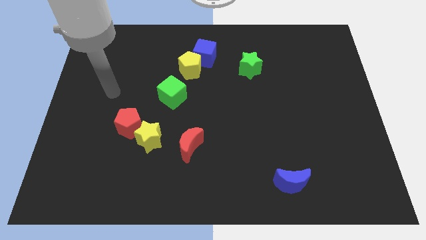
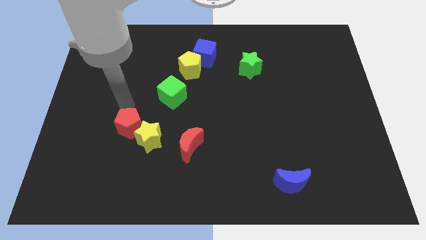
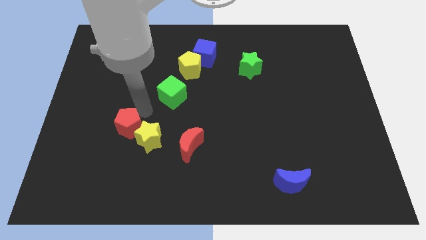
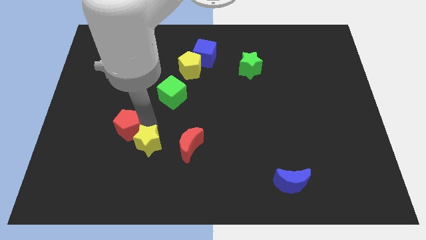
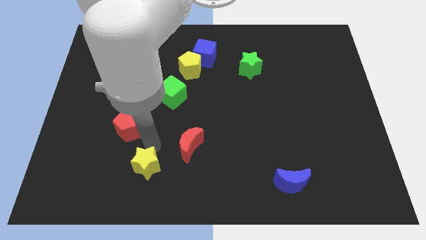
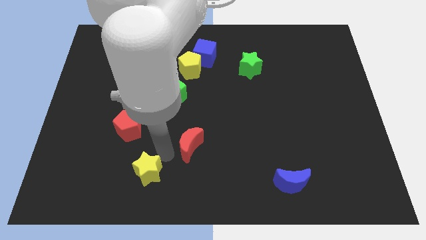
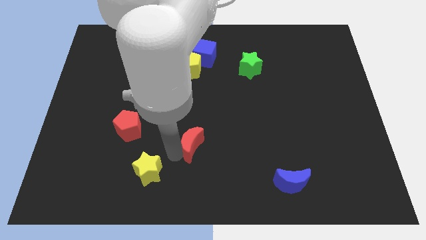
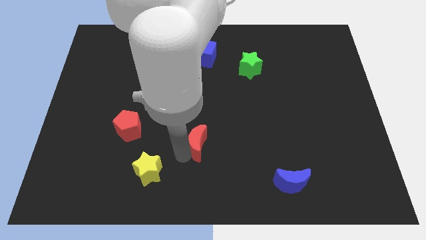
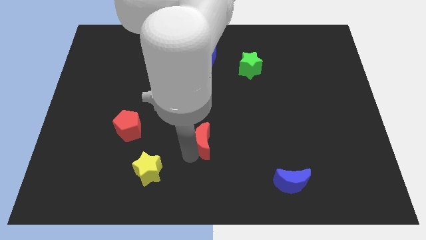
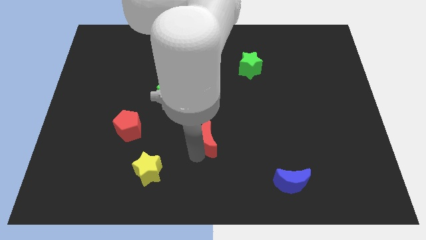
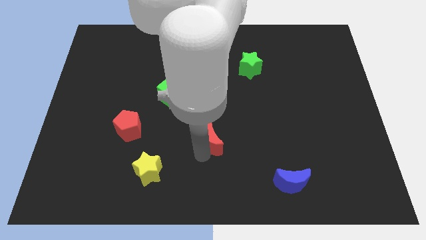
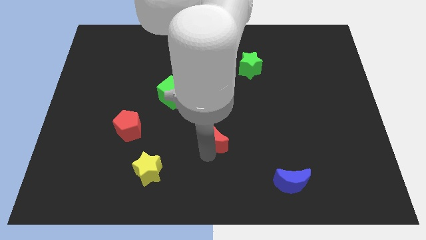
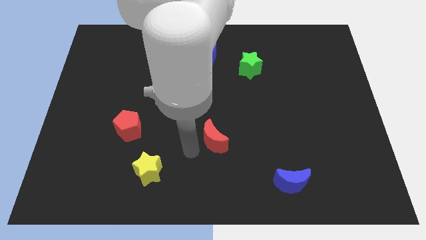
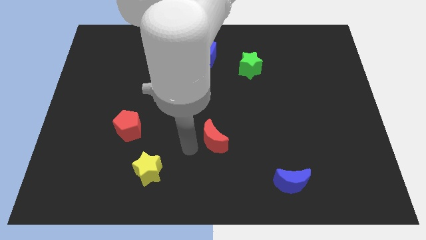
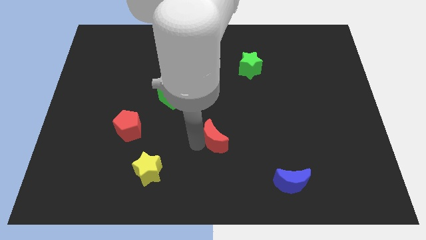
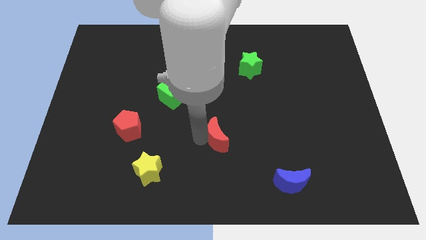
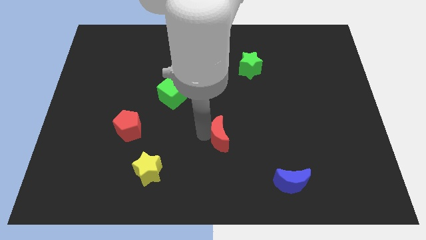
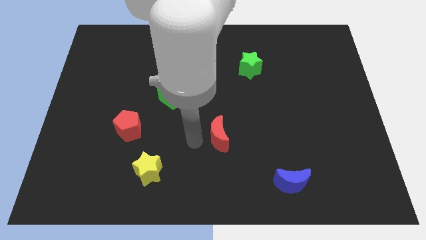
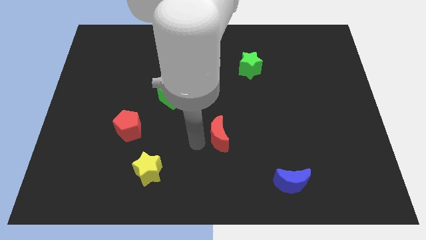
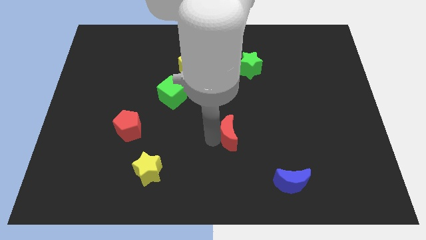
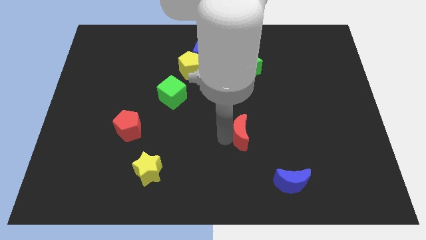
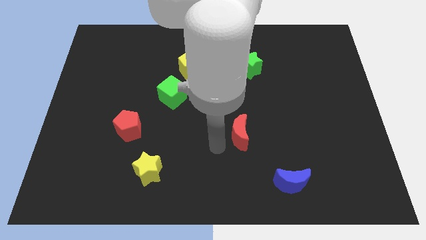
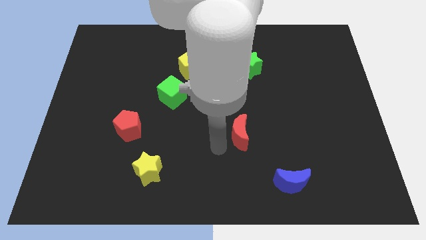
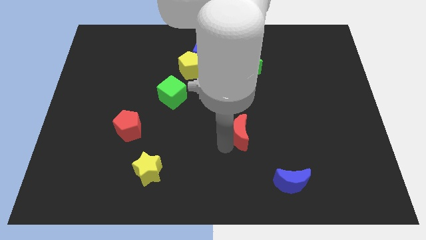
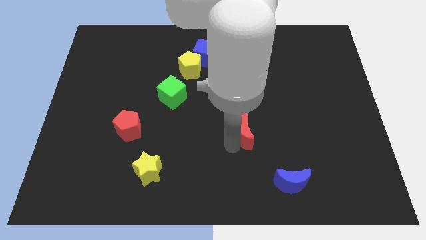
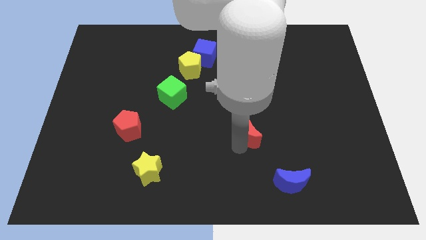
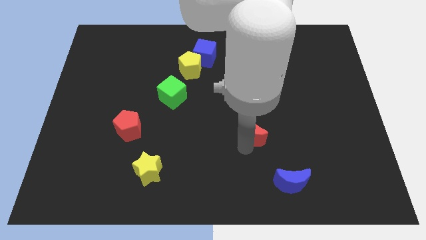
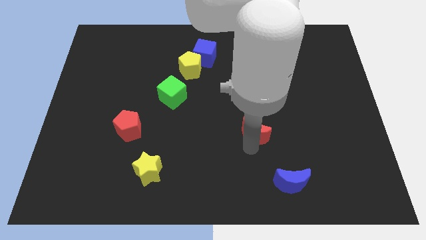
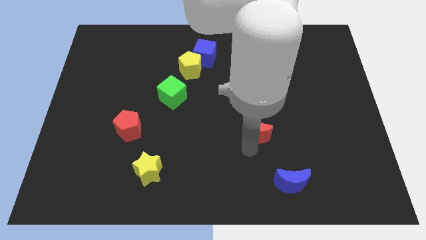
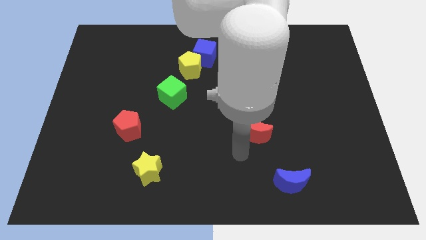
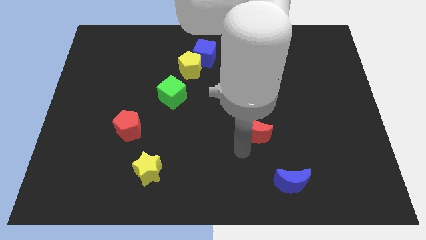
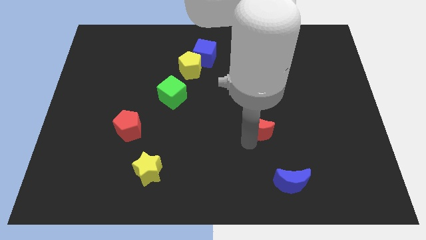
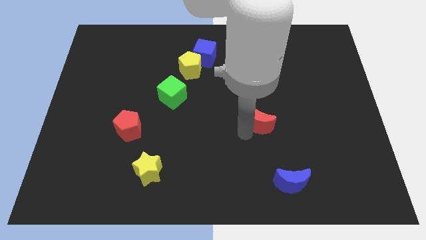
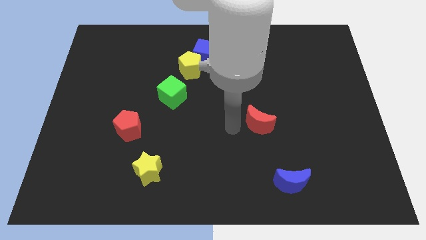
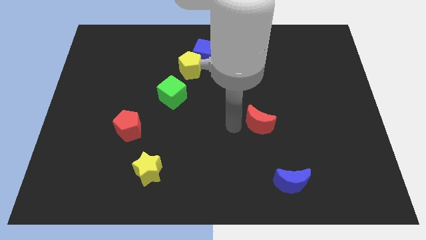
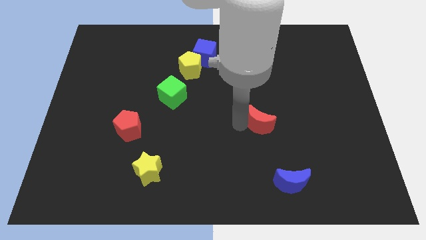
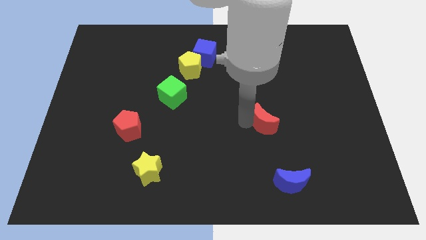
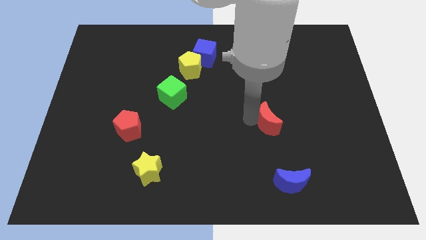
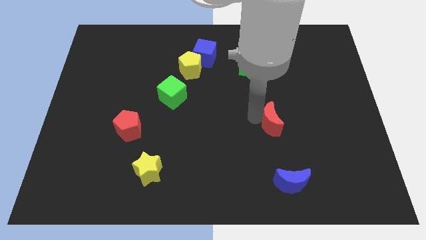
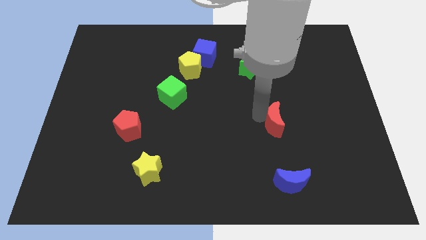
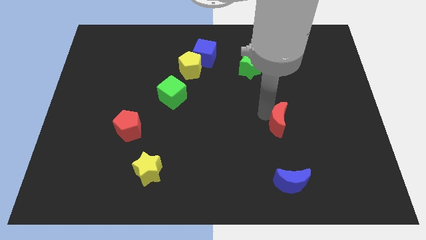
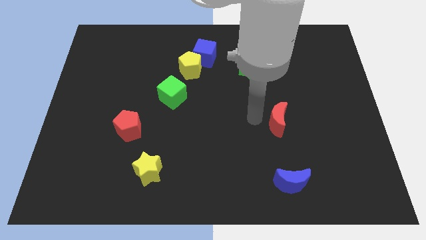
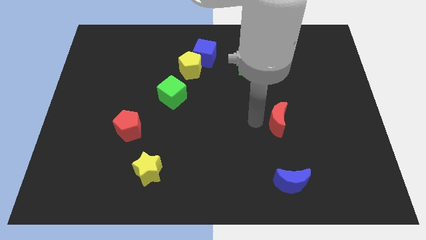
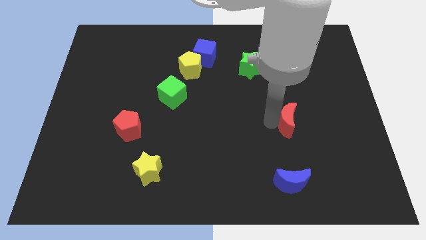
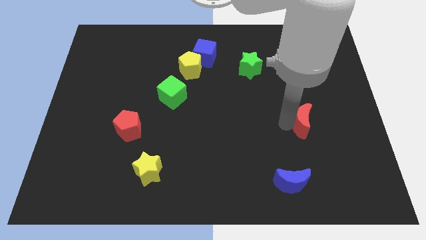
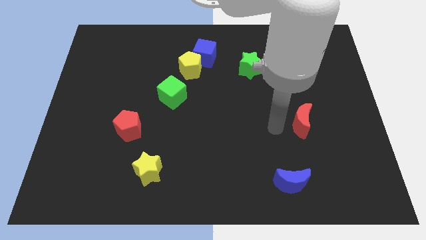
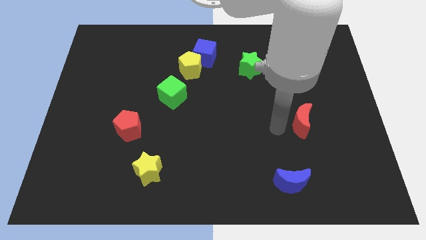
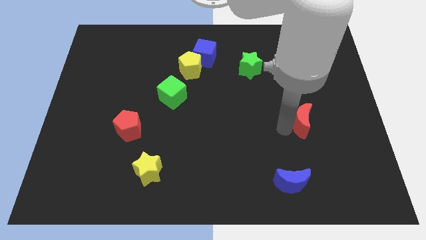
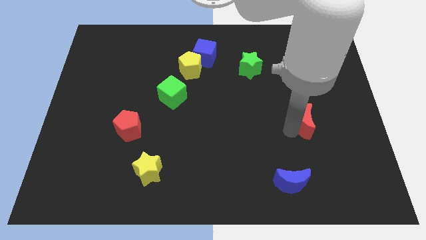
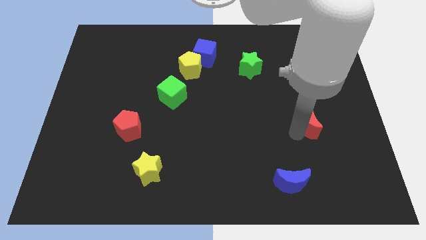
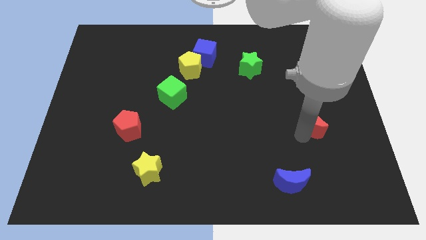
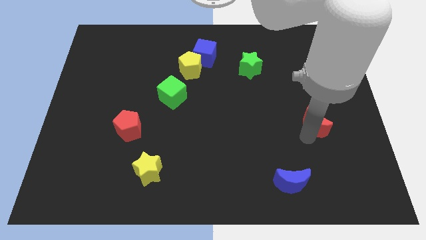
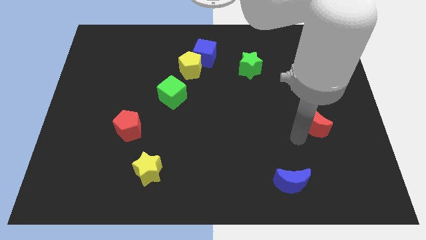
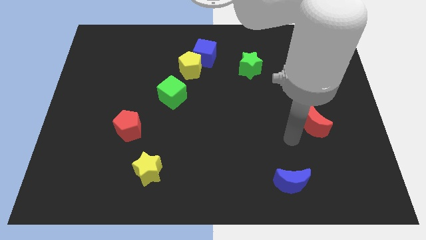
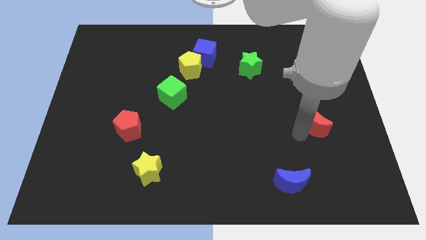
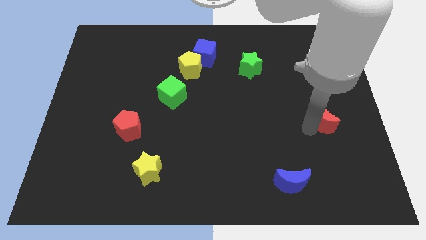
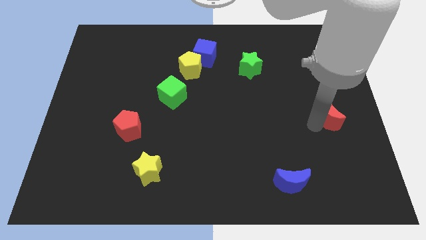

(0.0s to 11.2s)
move the red moon to the right side

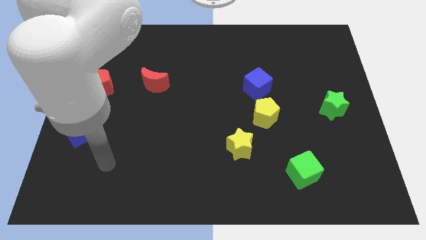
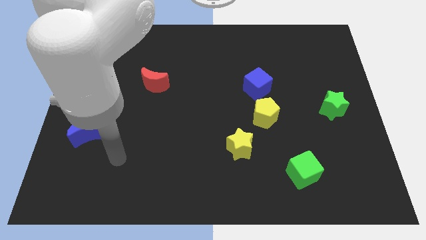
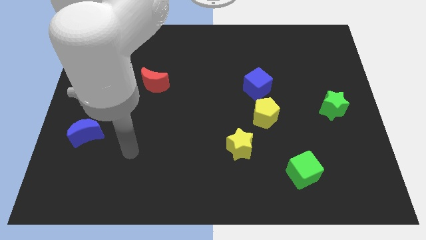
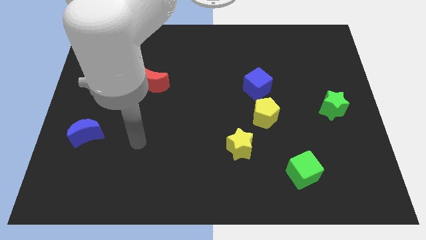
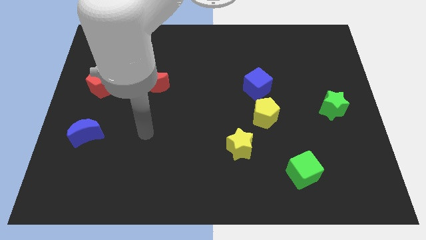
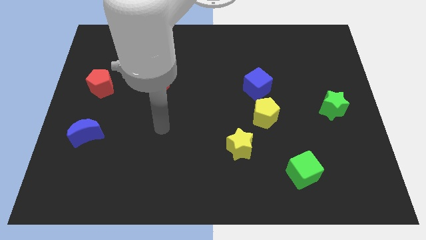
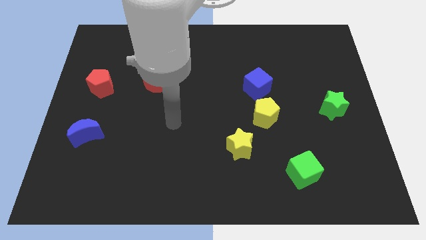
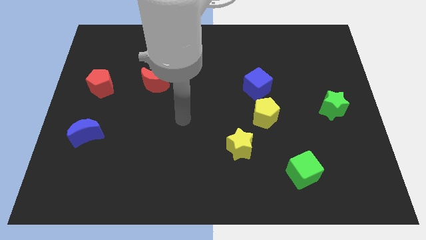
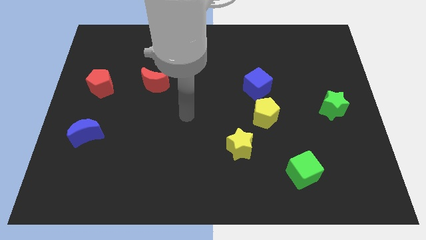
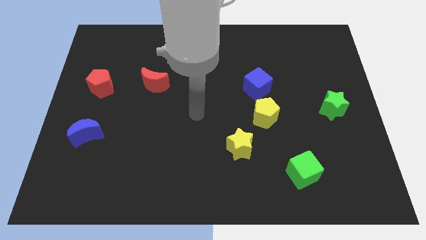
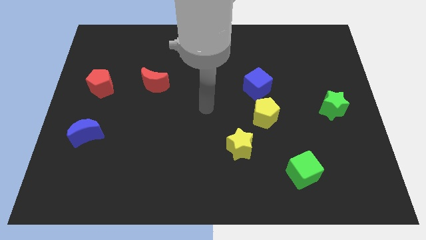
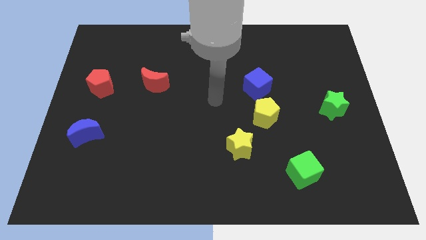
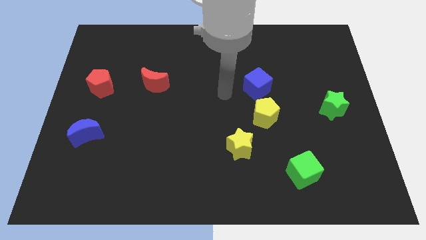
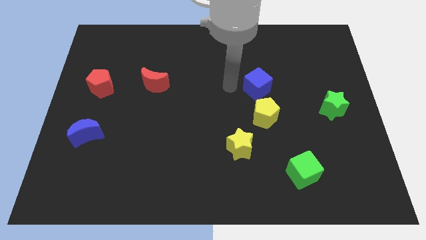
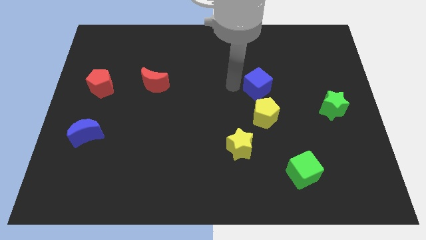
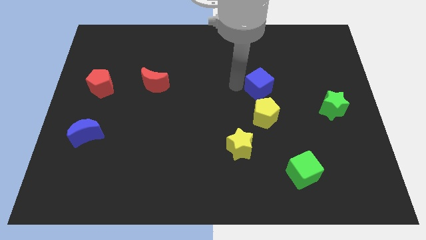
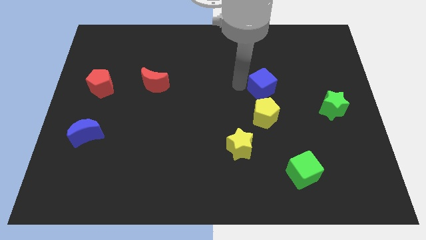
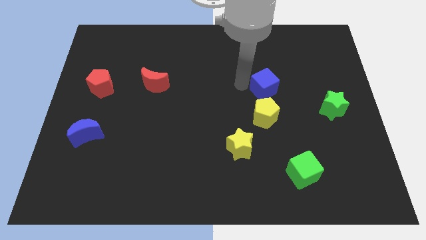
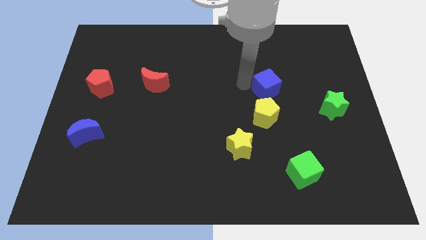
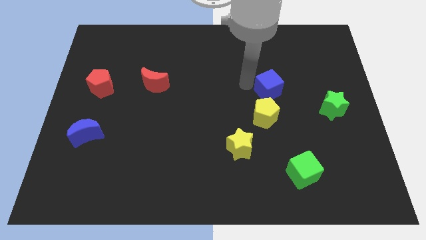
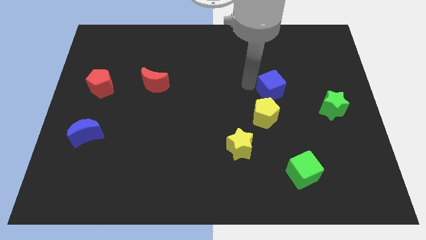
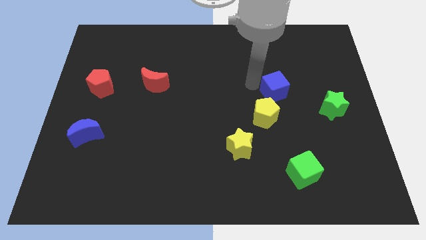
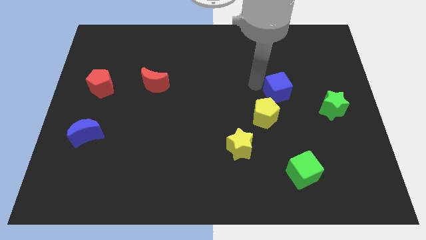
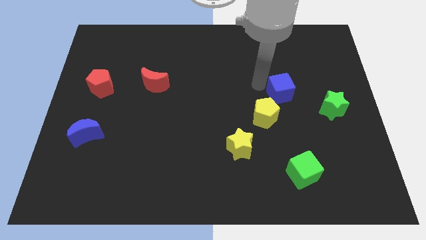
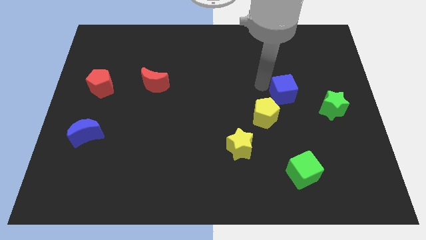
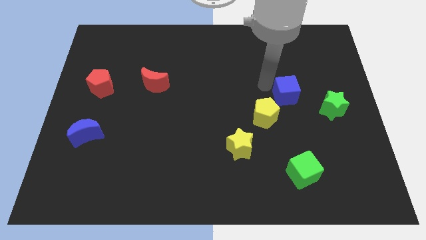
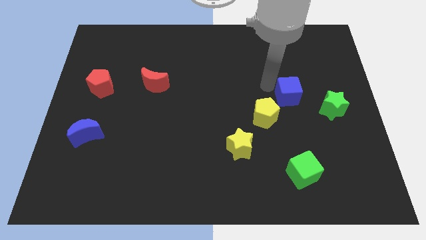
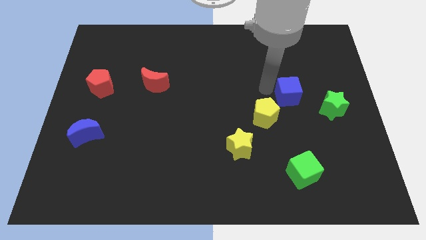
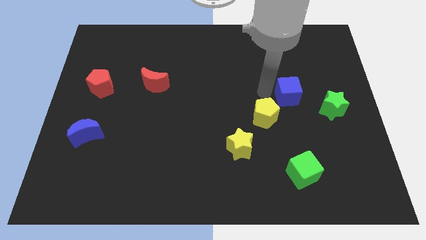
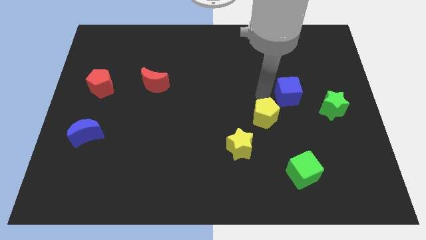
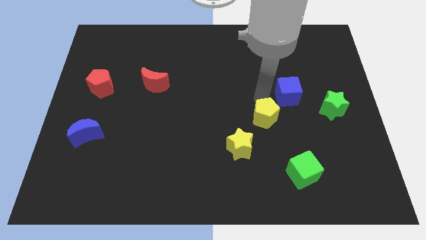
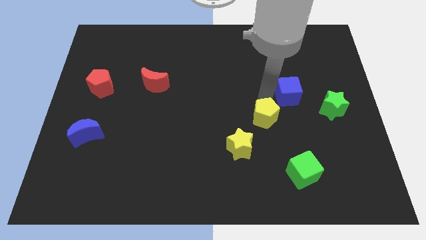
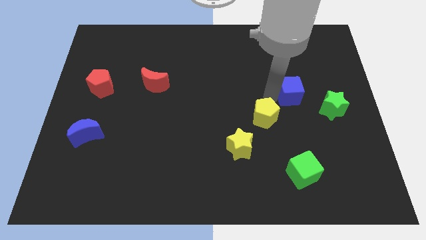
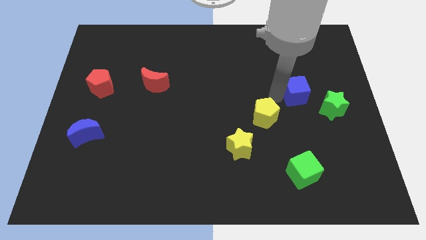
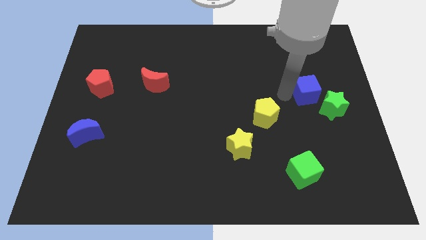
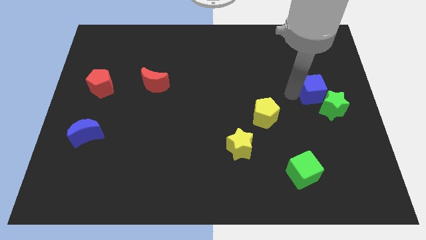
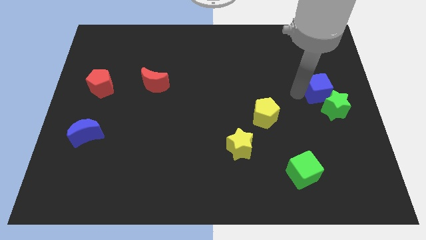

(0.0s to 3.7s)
push the blue cube to the center right
